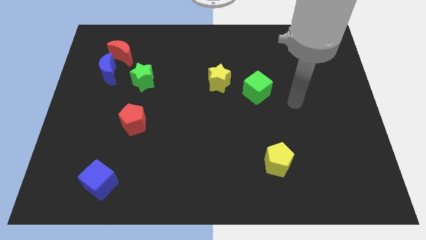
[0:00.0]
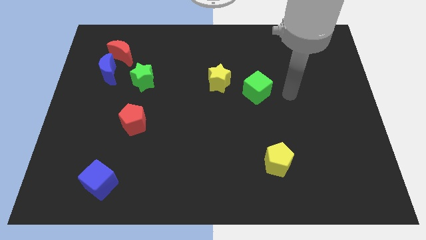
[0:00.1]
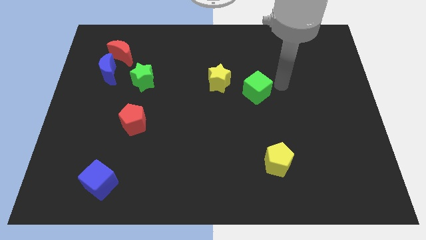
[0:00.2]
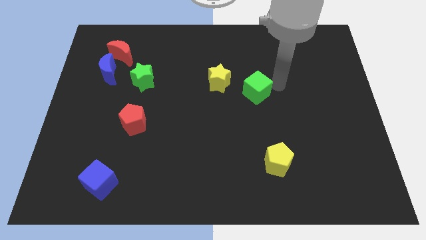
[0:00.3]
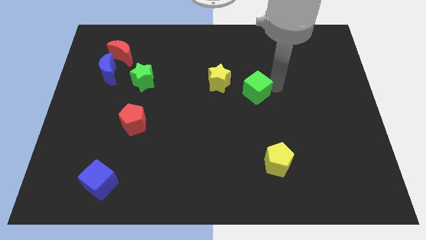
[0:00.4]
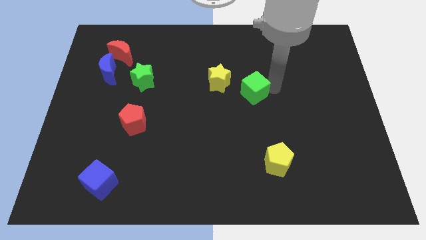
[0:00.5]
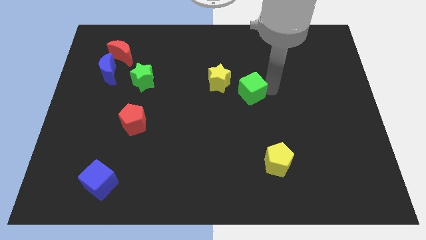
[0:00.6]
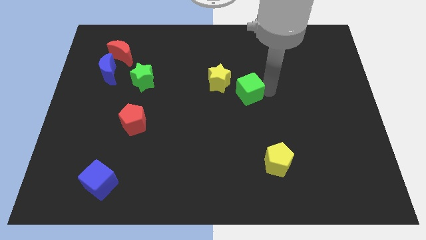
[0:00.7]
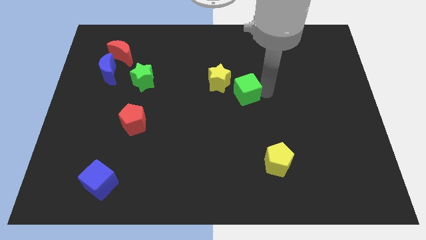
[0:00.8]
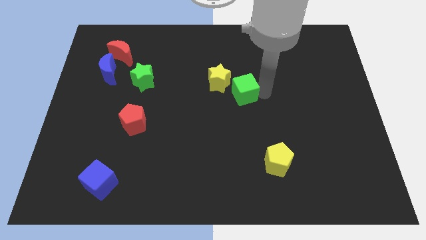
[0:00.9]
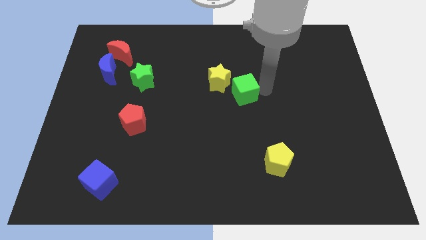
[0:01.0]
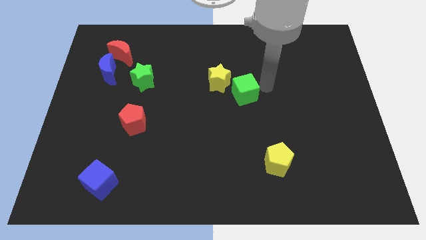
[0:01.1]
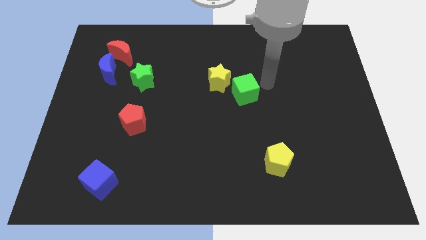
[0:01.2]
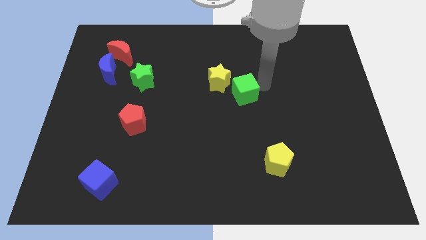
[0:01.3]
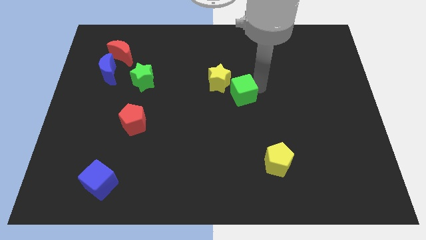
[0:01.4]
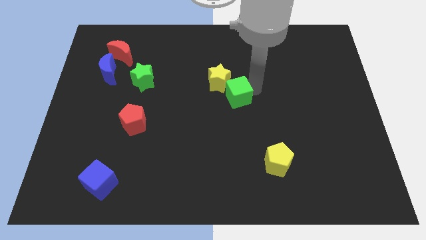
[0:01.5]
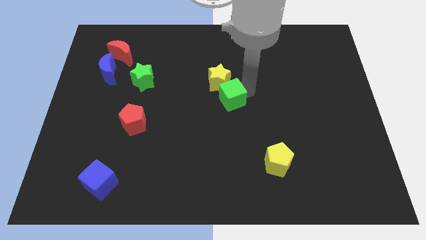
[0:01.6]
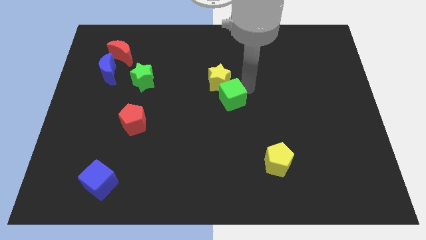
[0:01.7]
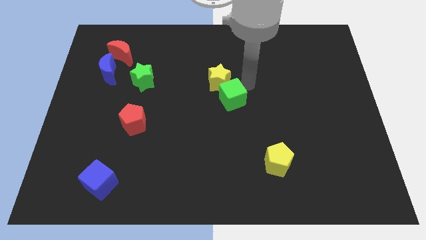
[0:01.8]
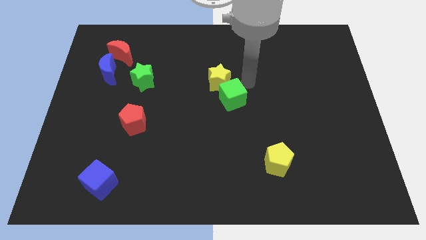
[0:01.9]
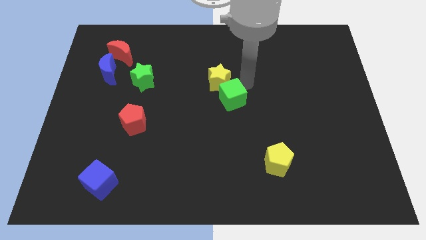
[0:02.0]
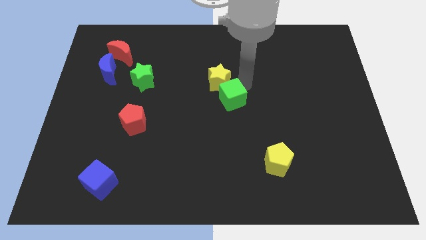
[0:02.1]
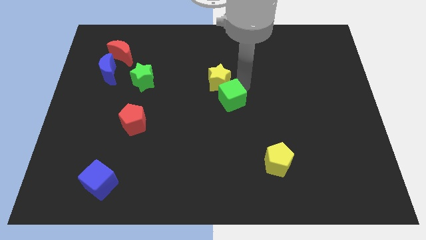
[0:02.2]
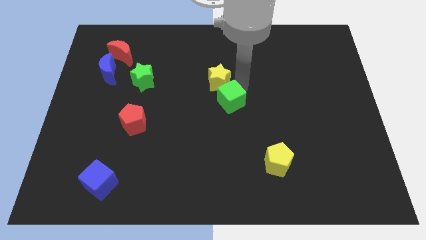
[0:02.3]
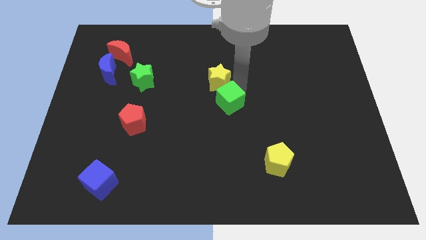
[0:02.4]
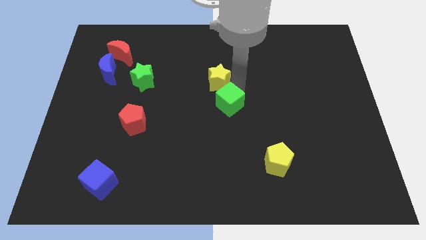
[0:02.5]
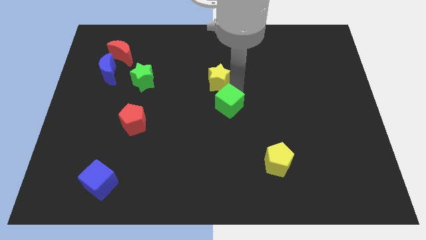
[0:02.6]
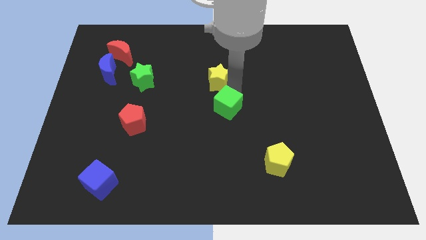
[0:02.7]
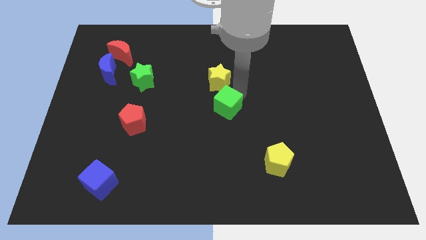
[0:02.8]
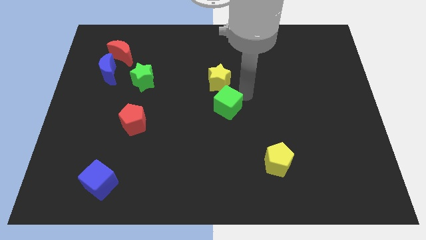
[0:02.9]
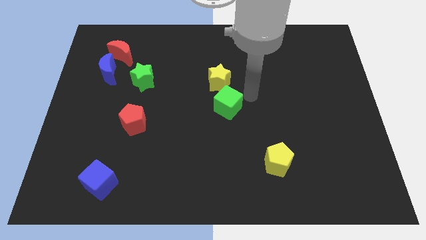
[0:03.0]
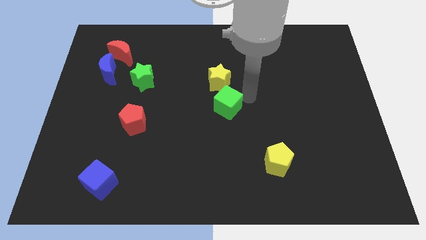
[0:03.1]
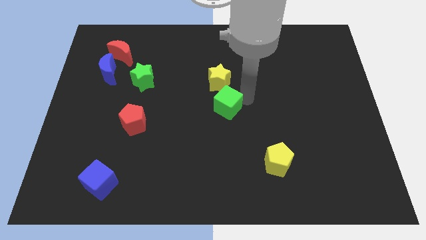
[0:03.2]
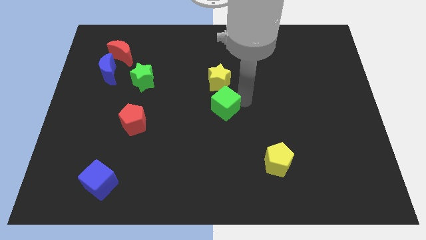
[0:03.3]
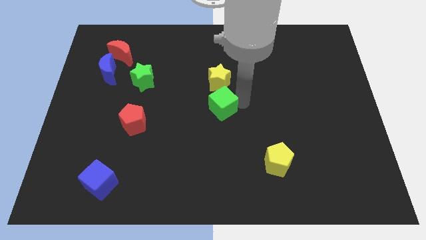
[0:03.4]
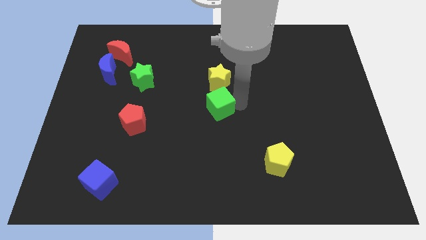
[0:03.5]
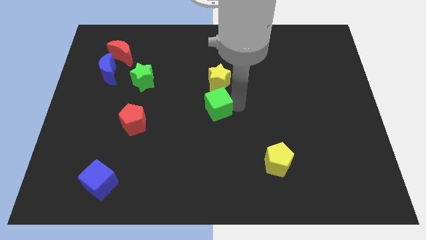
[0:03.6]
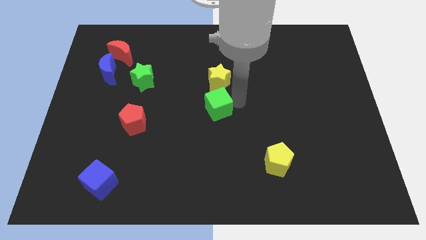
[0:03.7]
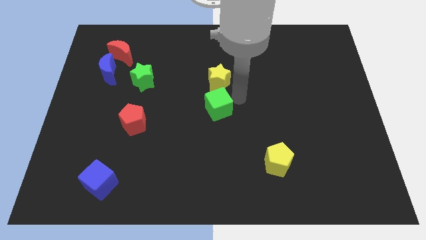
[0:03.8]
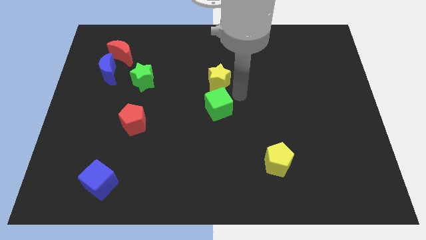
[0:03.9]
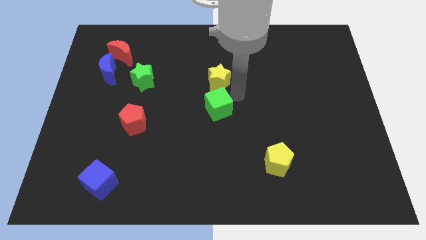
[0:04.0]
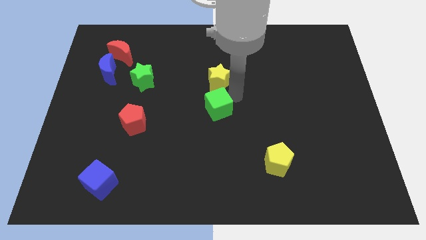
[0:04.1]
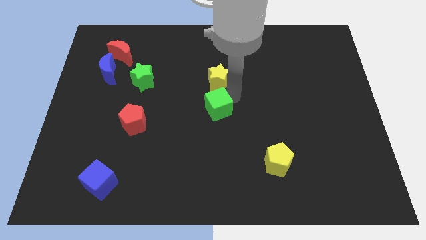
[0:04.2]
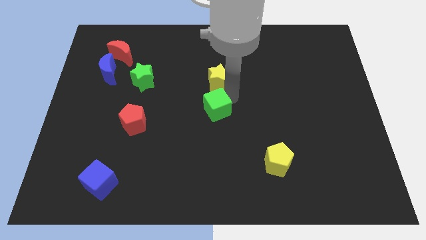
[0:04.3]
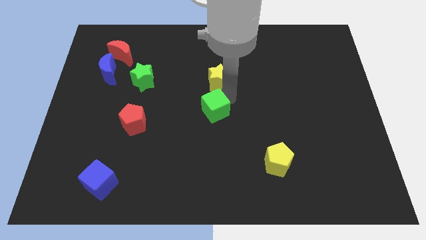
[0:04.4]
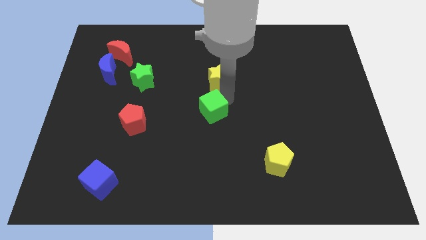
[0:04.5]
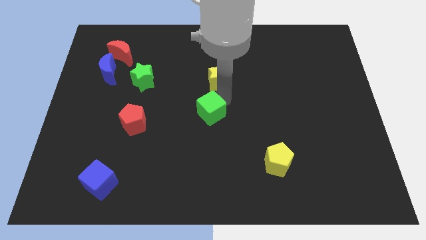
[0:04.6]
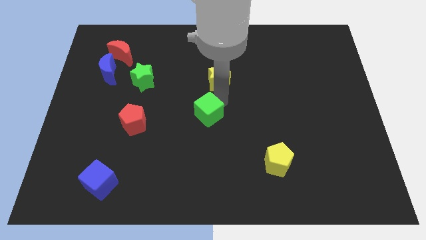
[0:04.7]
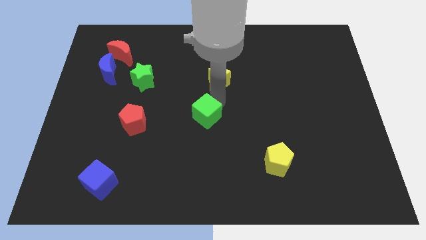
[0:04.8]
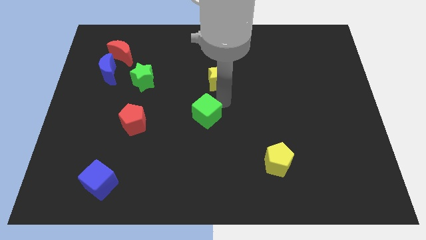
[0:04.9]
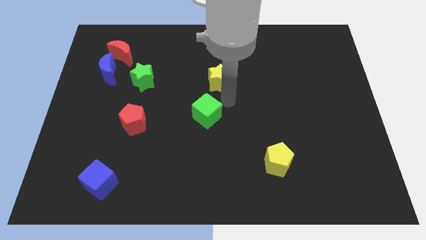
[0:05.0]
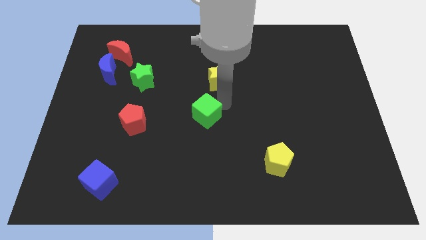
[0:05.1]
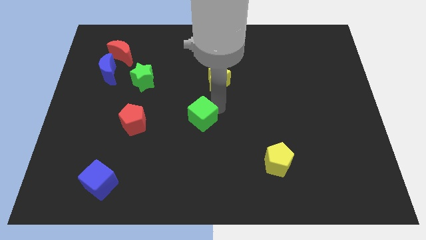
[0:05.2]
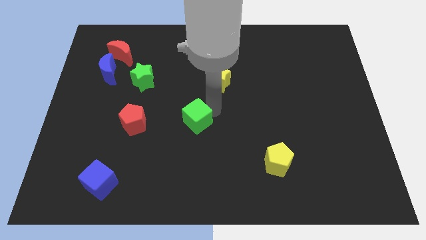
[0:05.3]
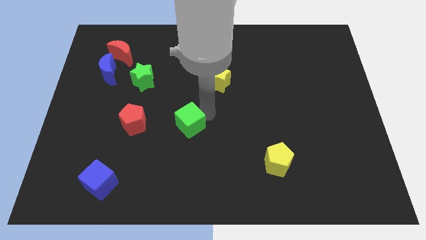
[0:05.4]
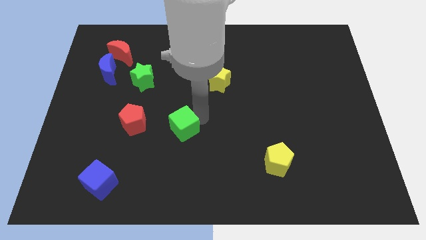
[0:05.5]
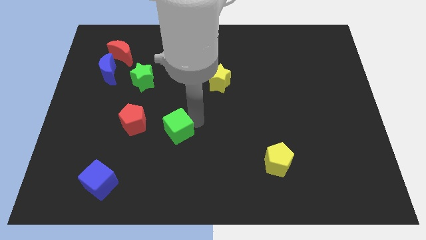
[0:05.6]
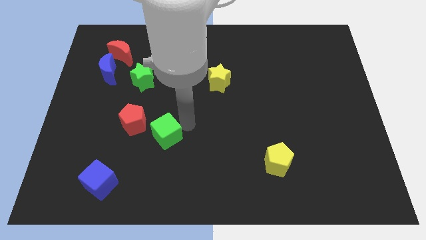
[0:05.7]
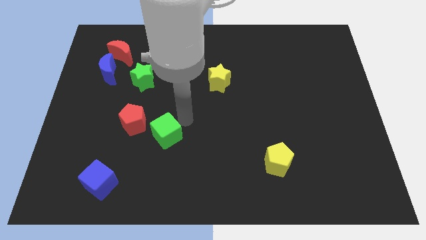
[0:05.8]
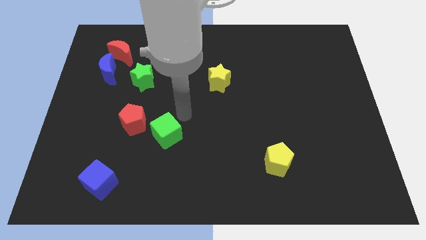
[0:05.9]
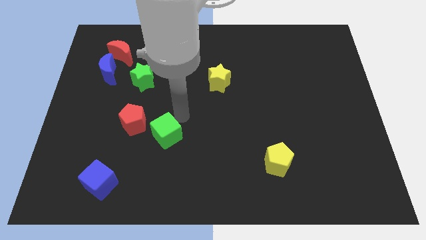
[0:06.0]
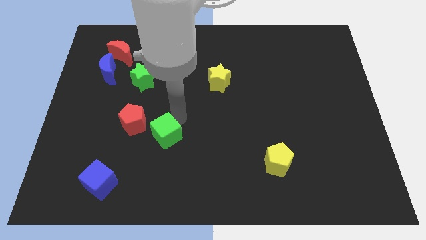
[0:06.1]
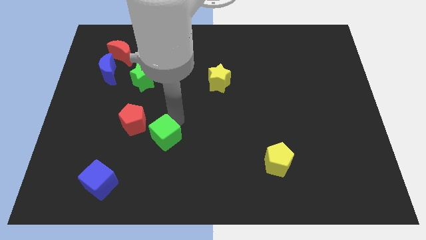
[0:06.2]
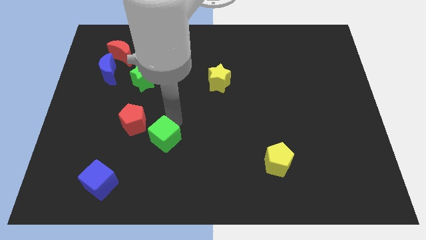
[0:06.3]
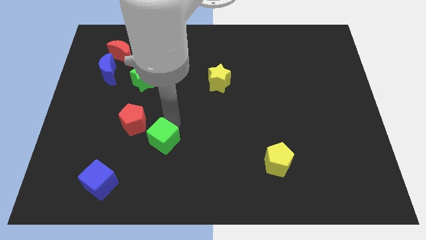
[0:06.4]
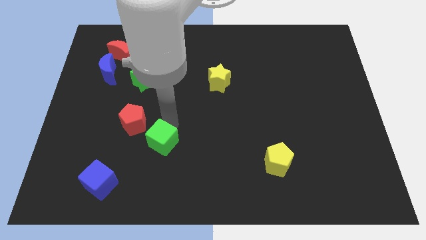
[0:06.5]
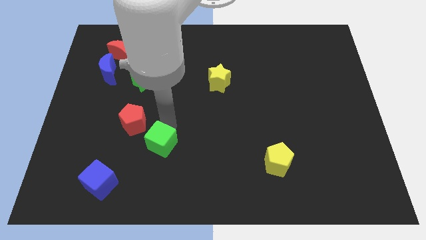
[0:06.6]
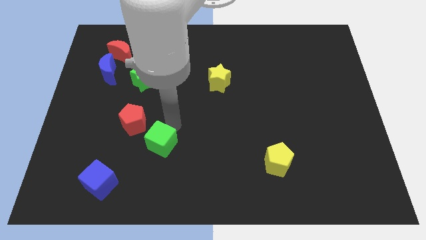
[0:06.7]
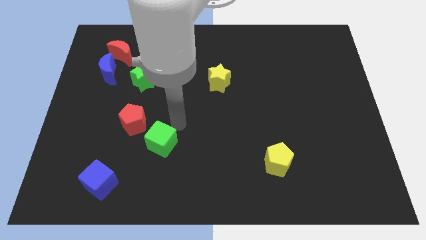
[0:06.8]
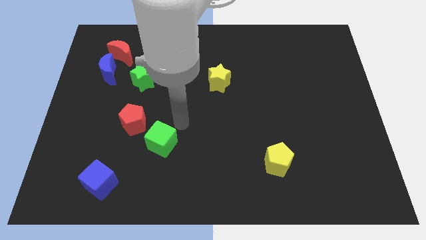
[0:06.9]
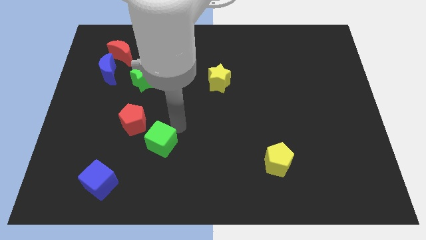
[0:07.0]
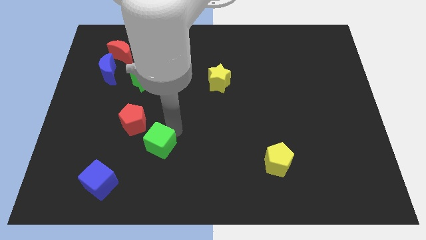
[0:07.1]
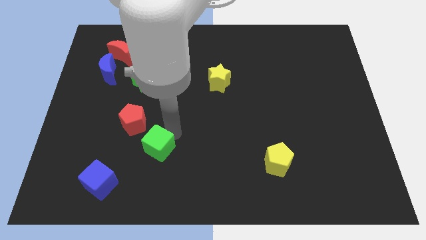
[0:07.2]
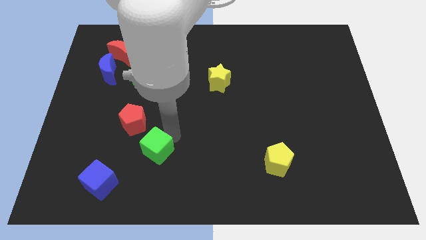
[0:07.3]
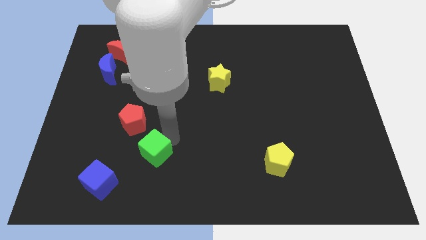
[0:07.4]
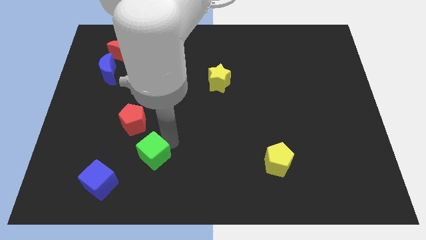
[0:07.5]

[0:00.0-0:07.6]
put the green cube to the top right side of the blue cube

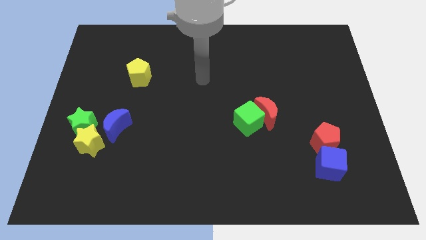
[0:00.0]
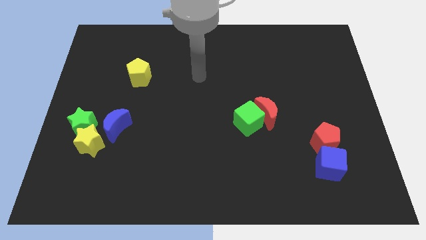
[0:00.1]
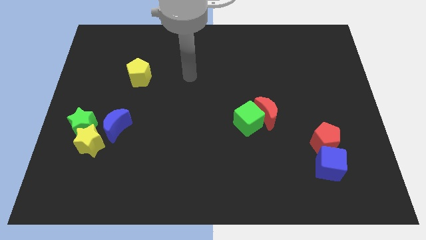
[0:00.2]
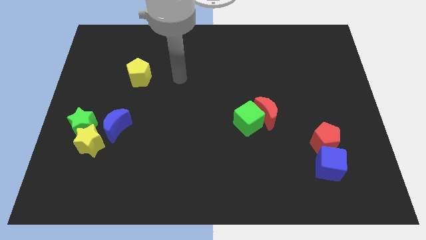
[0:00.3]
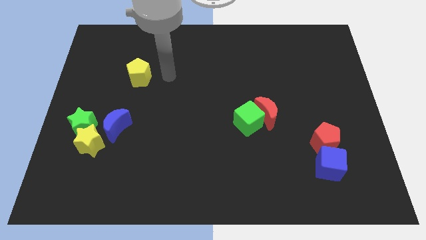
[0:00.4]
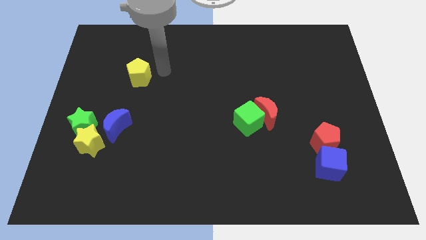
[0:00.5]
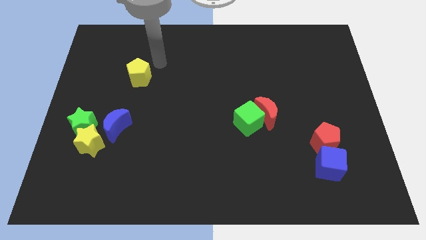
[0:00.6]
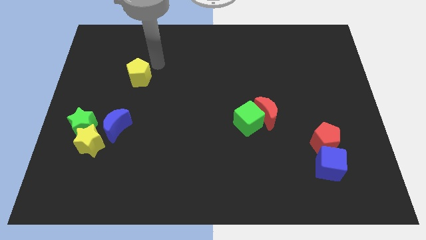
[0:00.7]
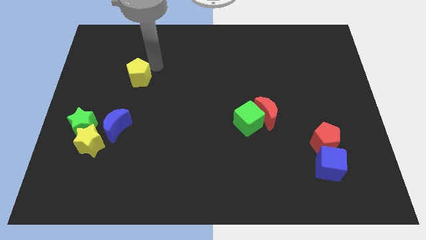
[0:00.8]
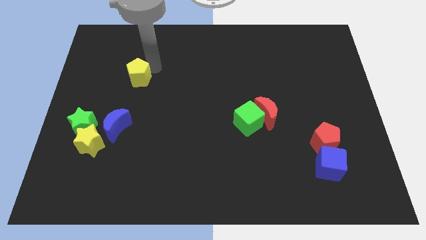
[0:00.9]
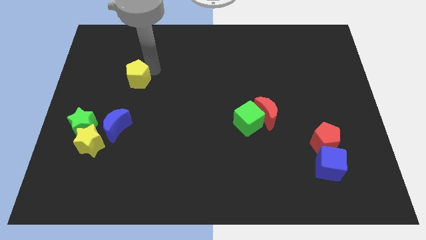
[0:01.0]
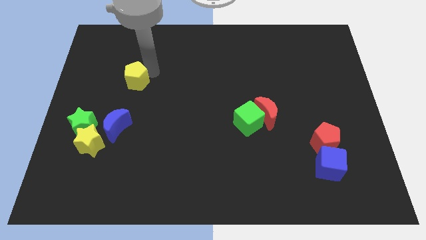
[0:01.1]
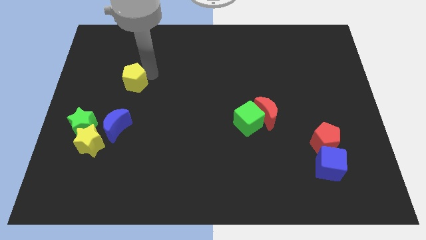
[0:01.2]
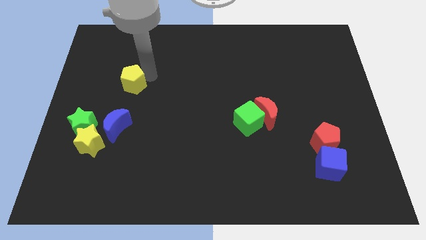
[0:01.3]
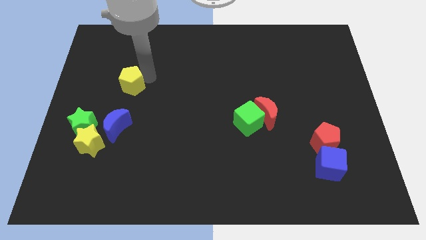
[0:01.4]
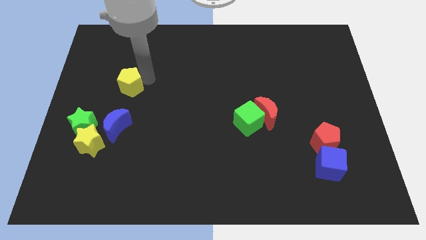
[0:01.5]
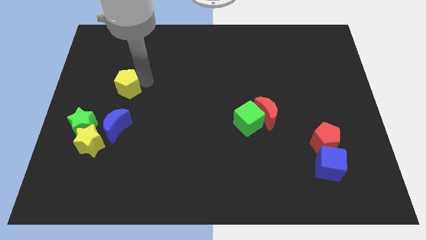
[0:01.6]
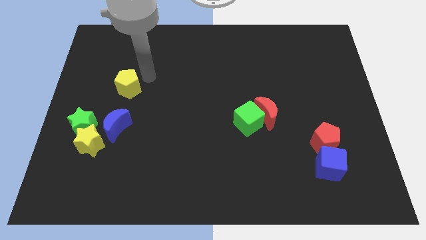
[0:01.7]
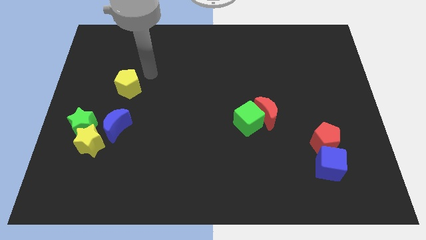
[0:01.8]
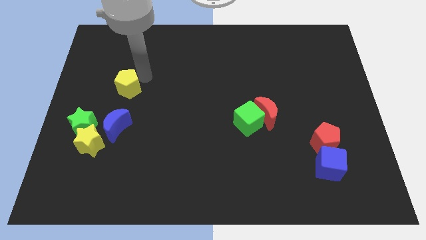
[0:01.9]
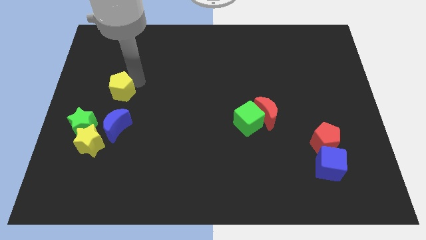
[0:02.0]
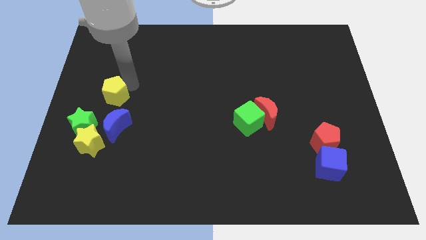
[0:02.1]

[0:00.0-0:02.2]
move the yellow pentagon to the top side of the yellow star
